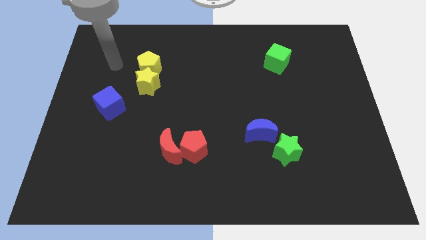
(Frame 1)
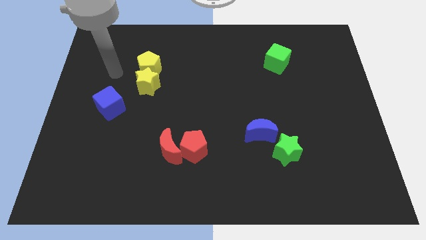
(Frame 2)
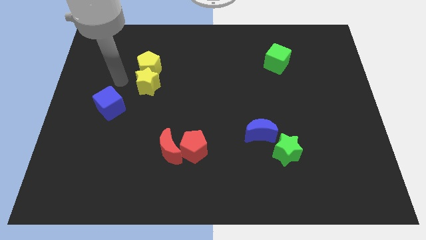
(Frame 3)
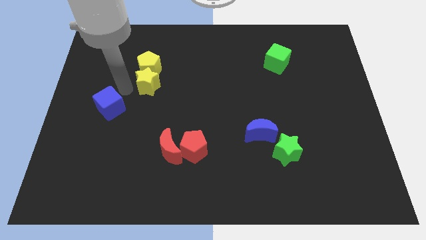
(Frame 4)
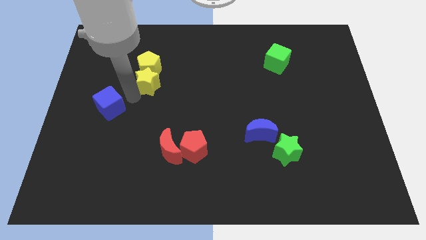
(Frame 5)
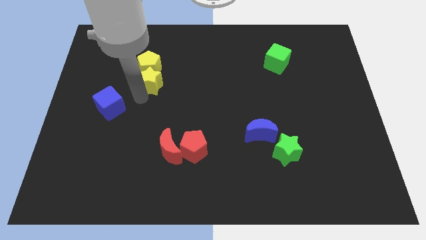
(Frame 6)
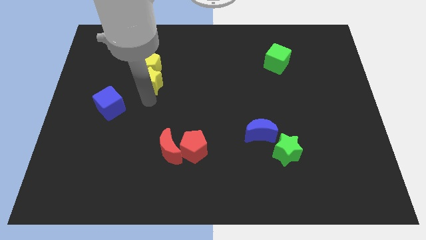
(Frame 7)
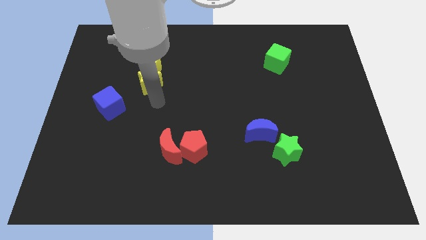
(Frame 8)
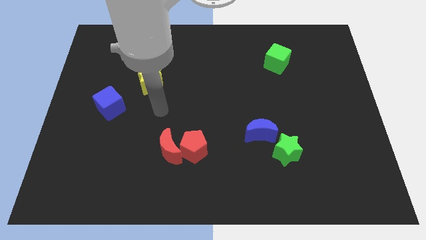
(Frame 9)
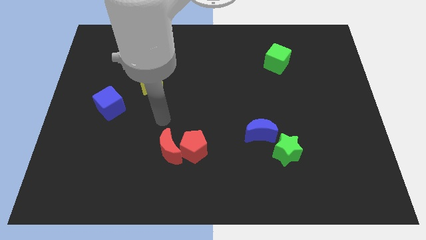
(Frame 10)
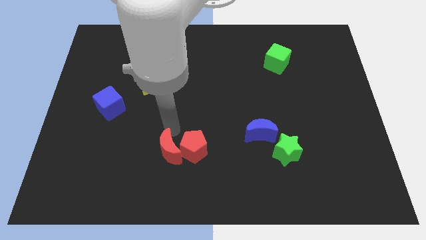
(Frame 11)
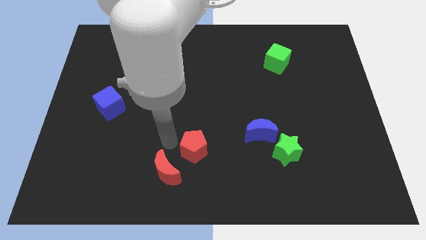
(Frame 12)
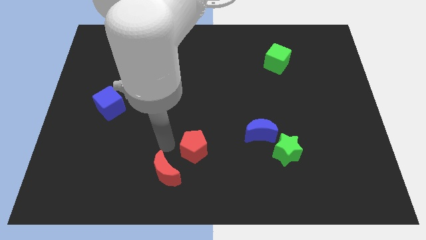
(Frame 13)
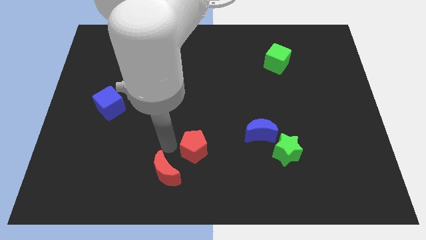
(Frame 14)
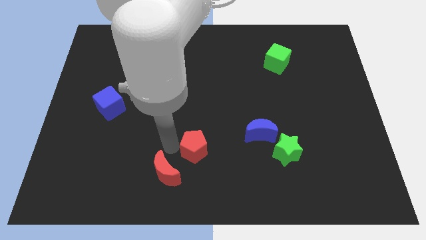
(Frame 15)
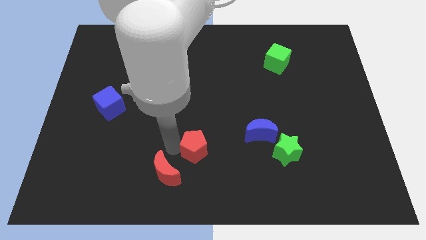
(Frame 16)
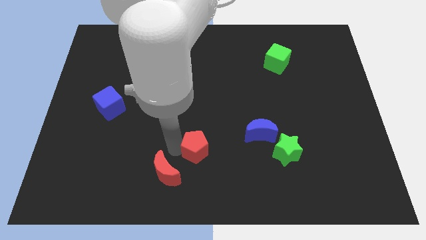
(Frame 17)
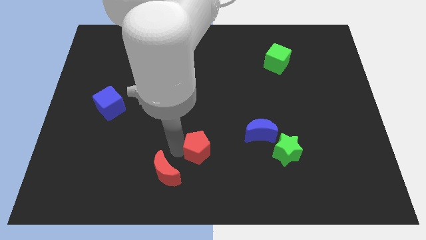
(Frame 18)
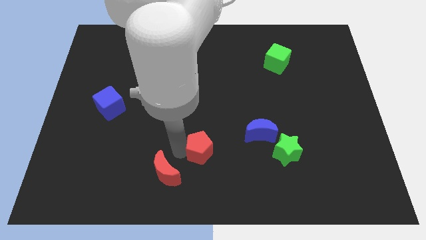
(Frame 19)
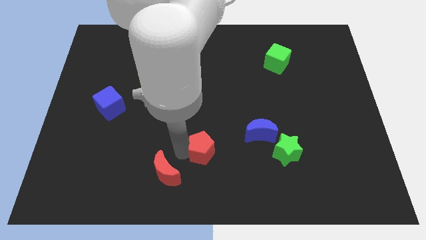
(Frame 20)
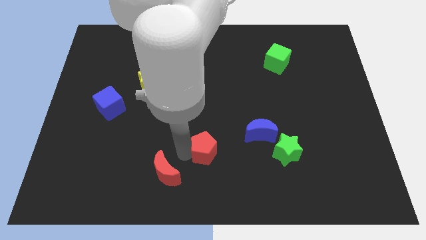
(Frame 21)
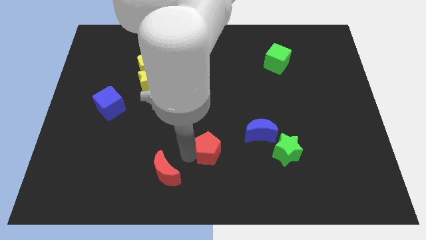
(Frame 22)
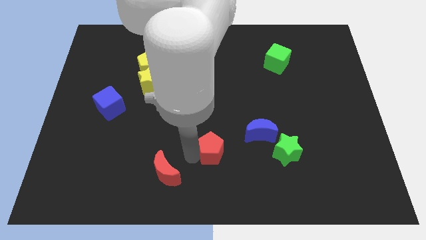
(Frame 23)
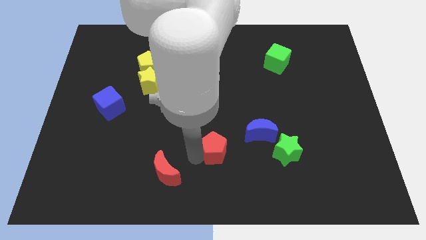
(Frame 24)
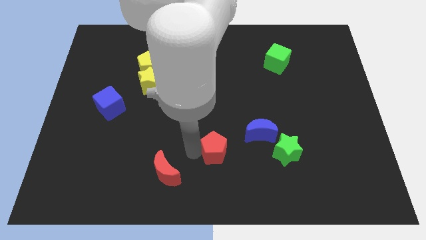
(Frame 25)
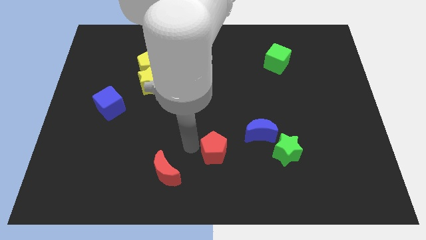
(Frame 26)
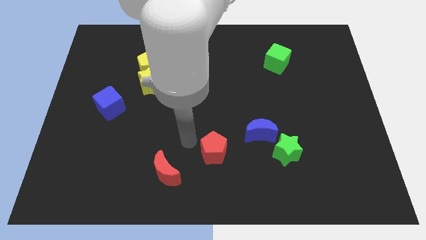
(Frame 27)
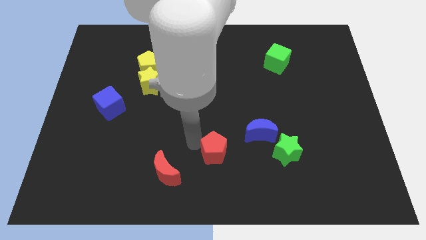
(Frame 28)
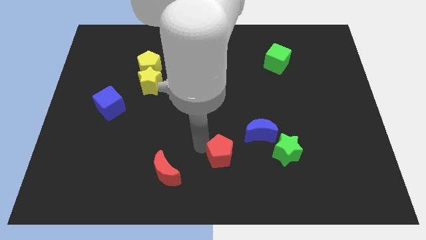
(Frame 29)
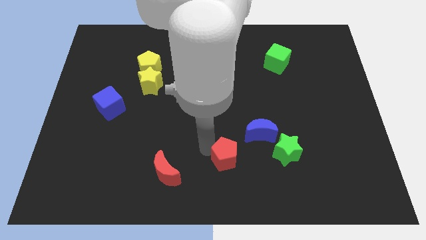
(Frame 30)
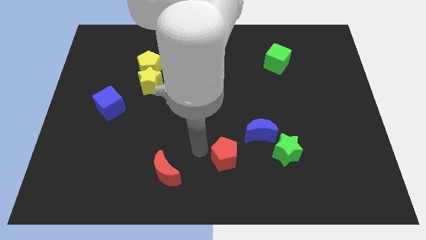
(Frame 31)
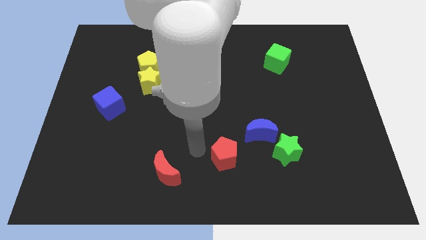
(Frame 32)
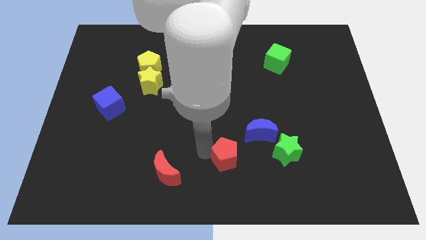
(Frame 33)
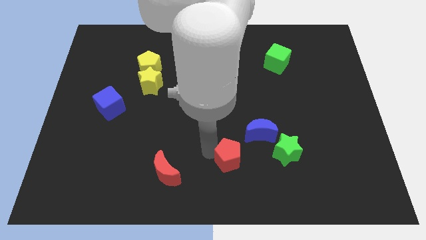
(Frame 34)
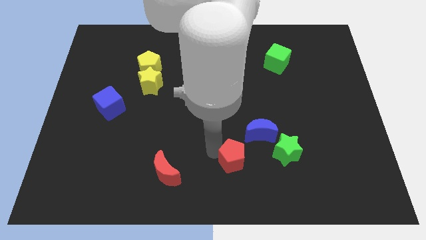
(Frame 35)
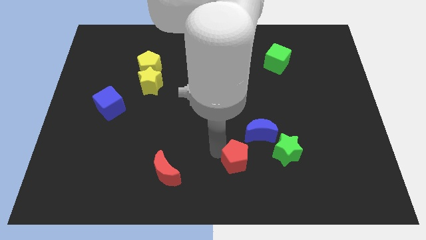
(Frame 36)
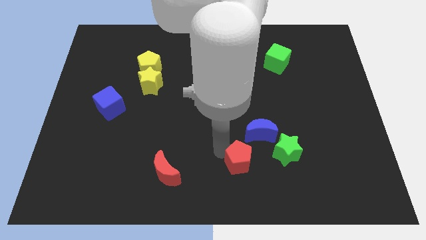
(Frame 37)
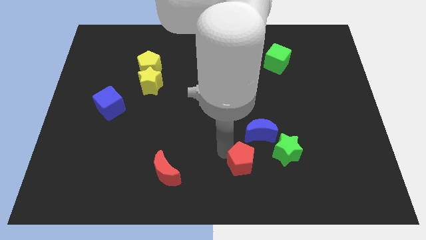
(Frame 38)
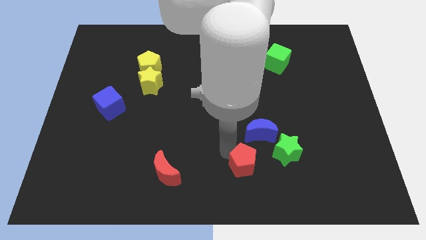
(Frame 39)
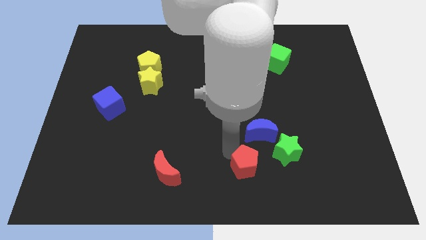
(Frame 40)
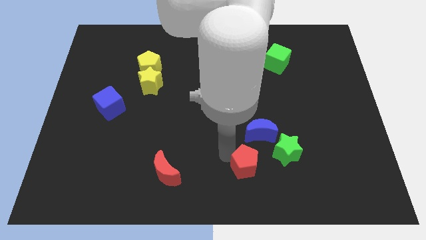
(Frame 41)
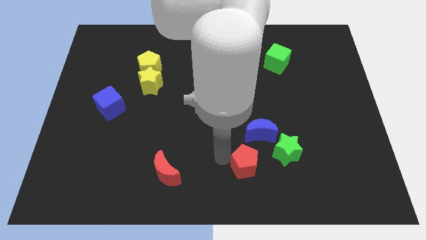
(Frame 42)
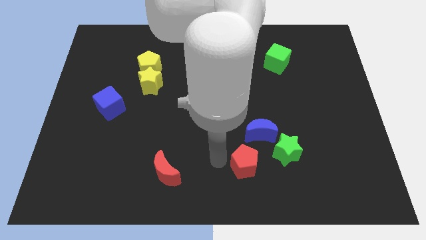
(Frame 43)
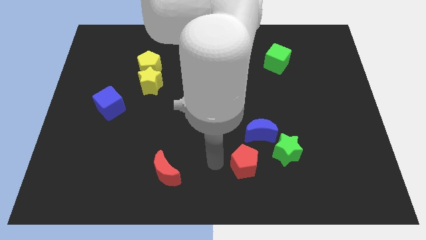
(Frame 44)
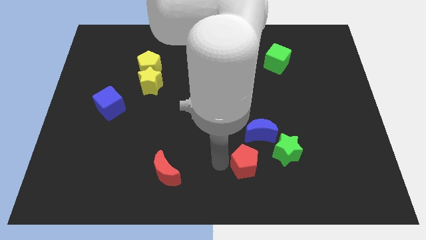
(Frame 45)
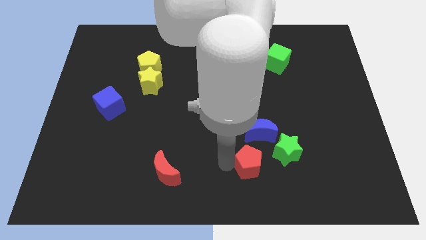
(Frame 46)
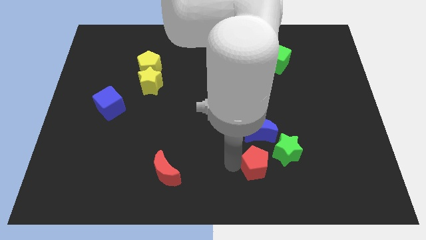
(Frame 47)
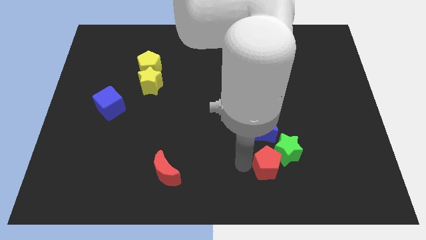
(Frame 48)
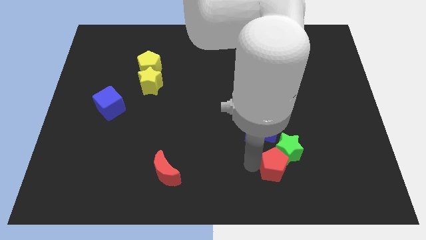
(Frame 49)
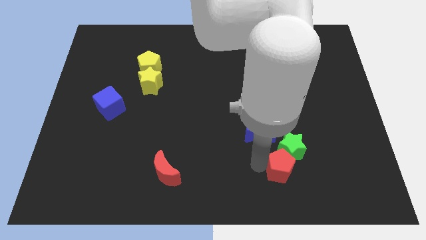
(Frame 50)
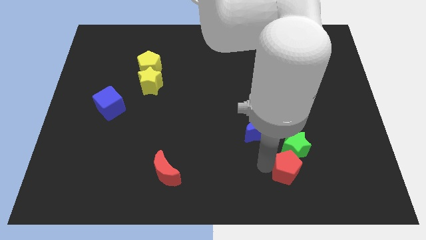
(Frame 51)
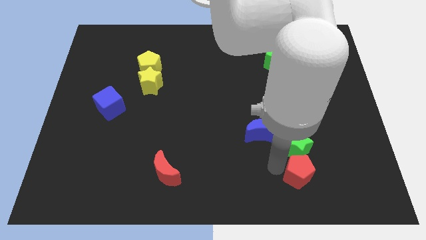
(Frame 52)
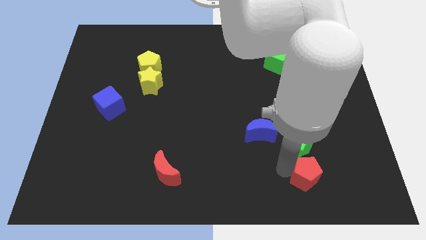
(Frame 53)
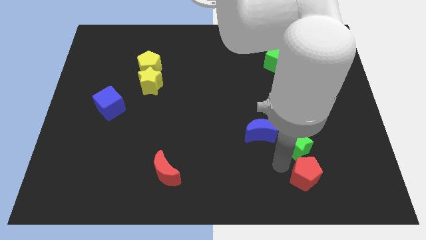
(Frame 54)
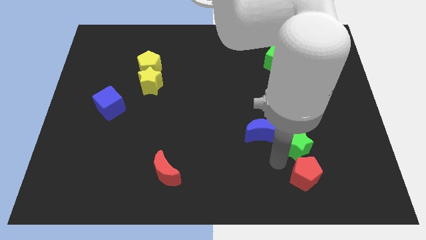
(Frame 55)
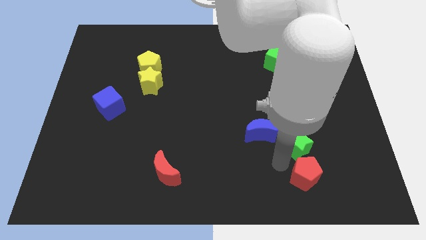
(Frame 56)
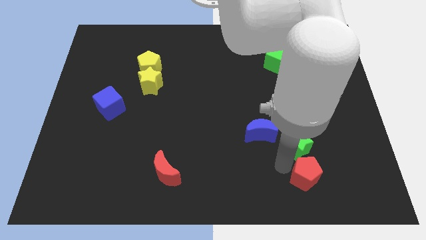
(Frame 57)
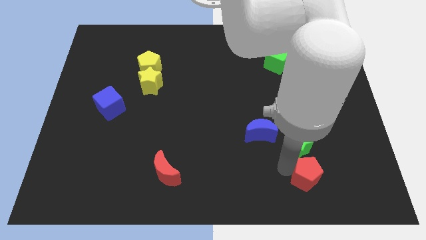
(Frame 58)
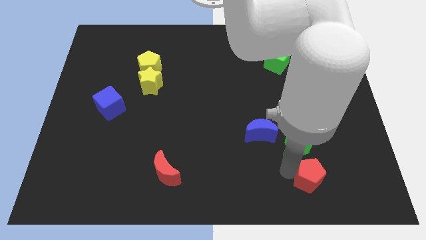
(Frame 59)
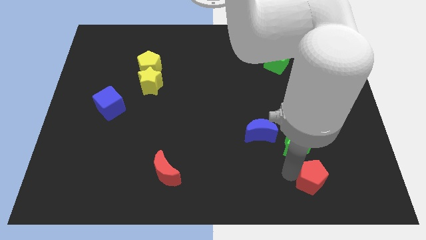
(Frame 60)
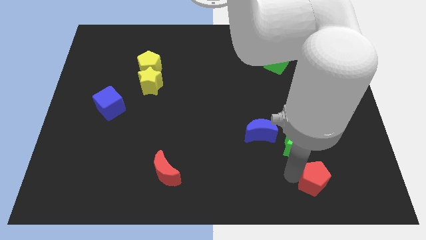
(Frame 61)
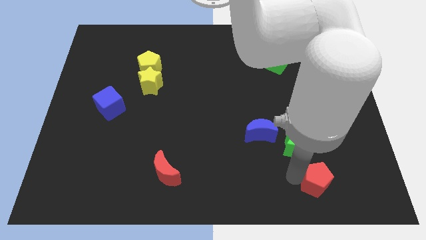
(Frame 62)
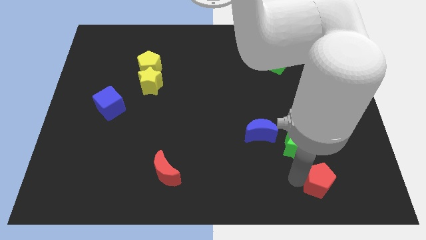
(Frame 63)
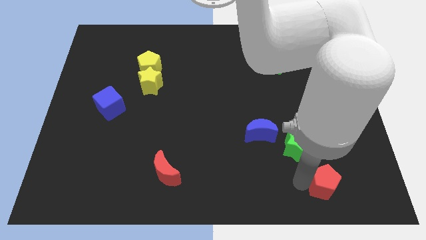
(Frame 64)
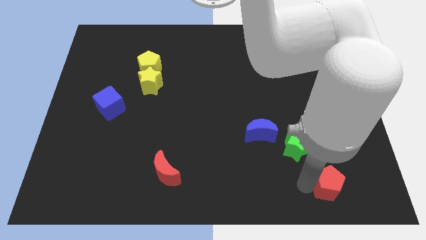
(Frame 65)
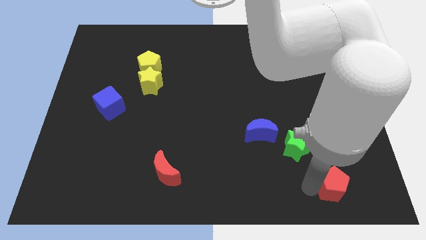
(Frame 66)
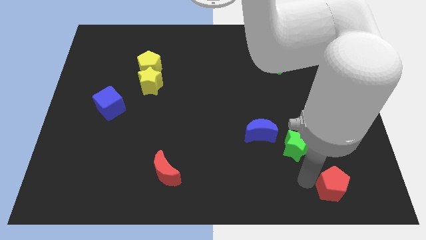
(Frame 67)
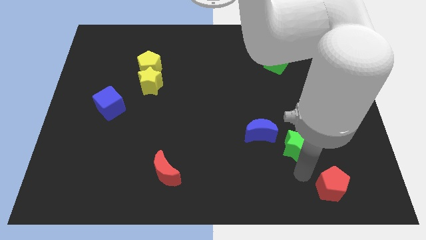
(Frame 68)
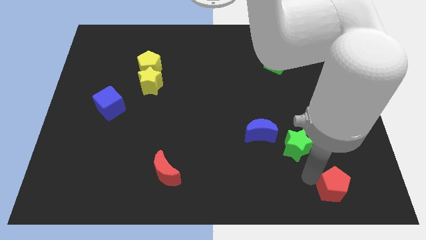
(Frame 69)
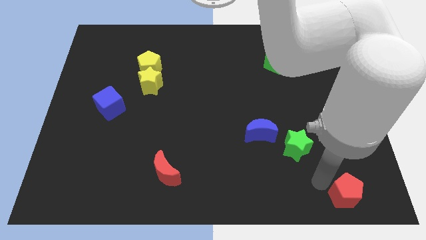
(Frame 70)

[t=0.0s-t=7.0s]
push the red pentagon to the bottom right of the board
